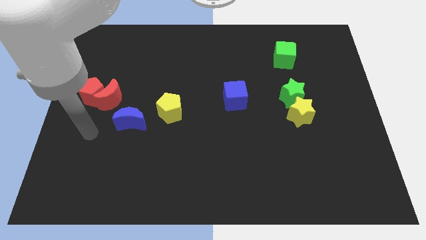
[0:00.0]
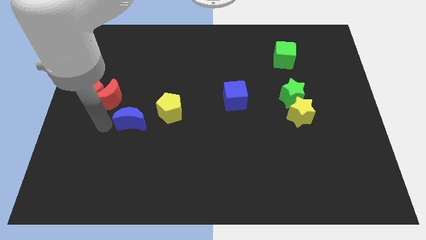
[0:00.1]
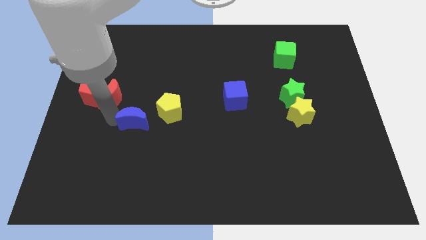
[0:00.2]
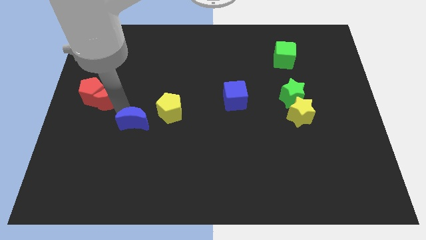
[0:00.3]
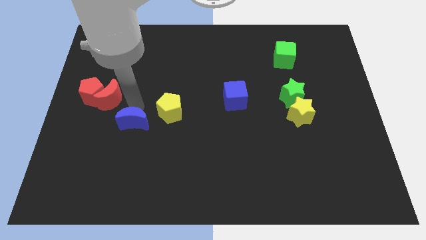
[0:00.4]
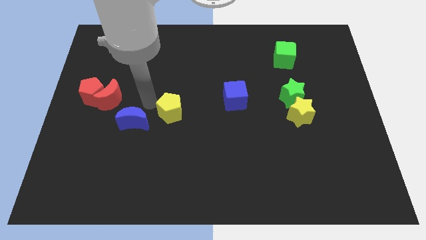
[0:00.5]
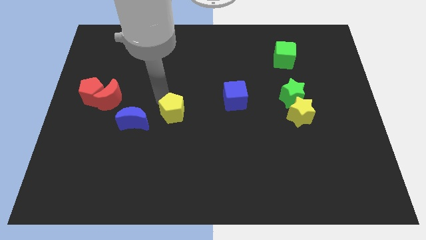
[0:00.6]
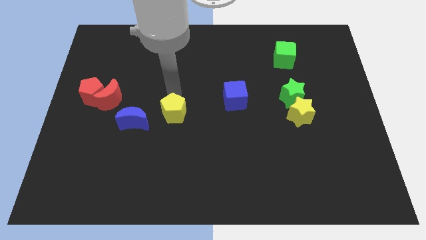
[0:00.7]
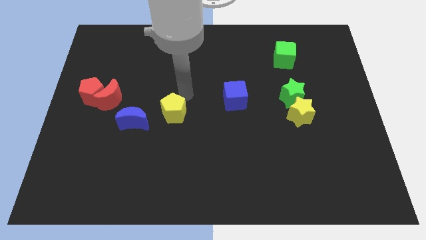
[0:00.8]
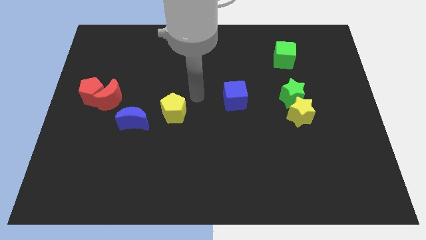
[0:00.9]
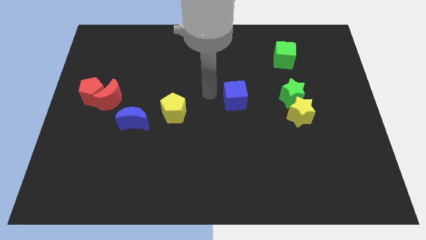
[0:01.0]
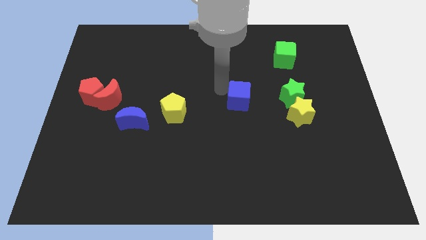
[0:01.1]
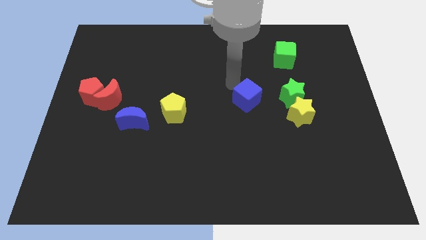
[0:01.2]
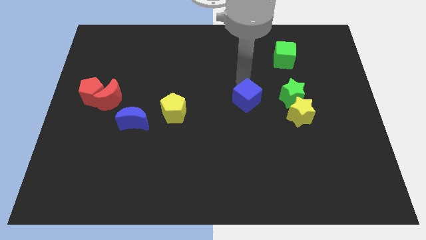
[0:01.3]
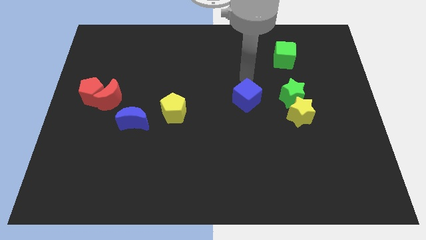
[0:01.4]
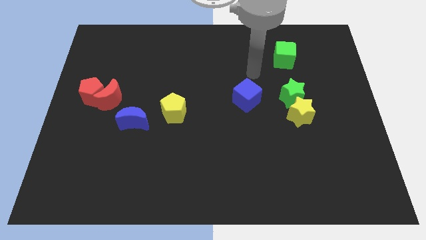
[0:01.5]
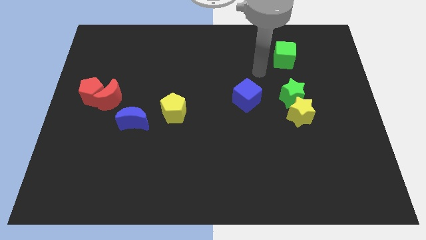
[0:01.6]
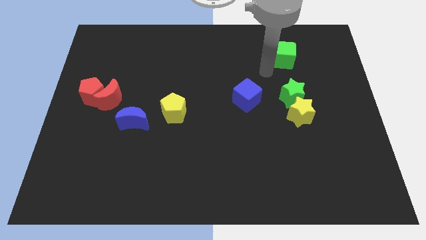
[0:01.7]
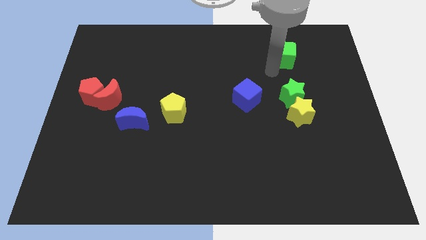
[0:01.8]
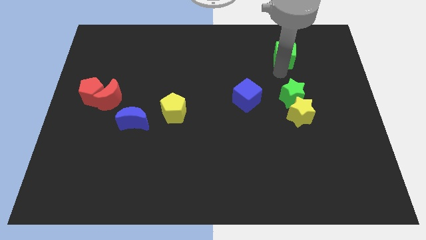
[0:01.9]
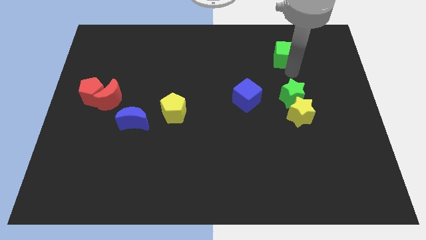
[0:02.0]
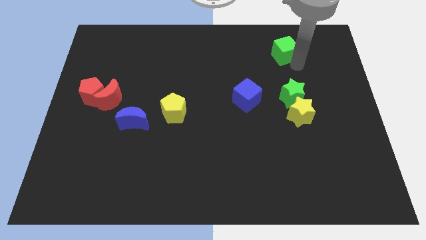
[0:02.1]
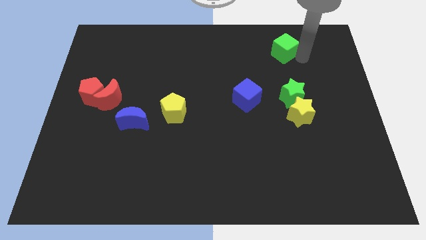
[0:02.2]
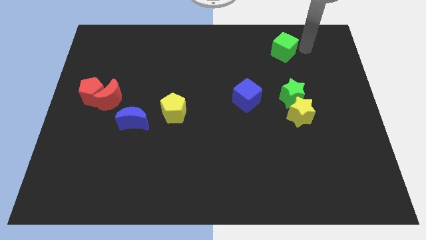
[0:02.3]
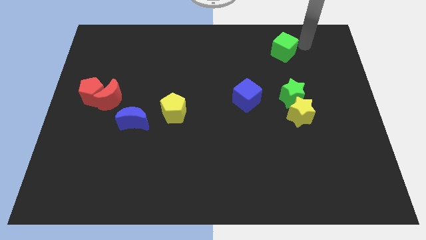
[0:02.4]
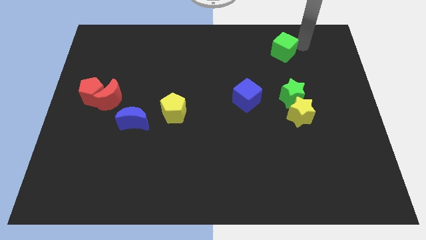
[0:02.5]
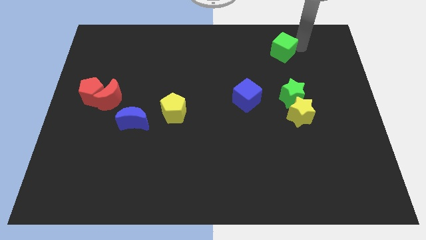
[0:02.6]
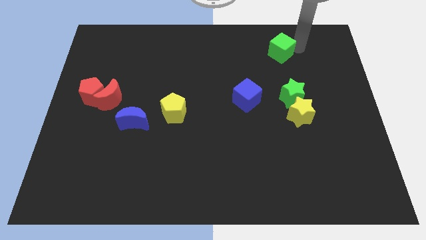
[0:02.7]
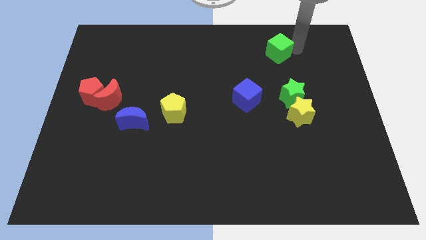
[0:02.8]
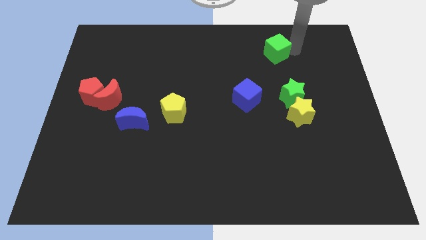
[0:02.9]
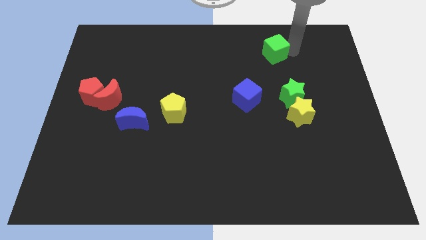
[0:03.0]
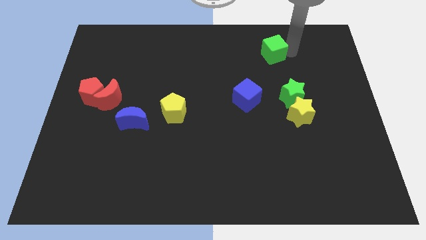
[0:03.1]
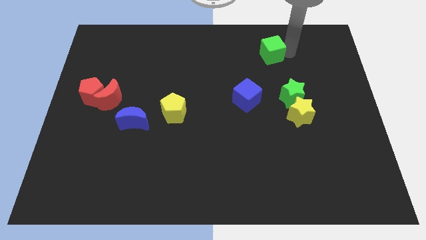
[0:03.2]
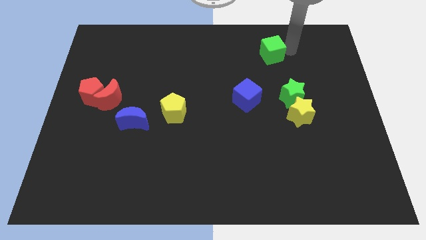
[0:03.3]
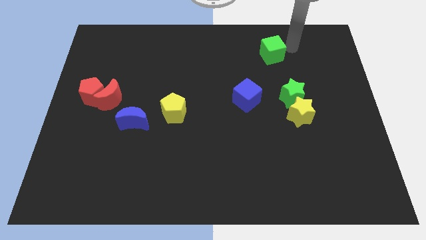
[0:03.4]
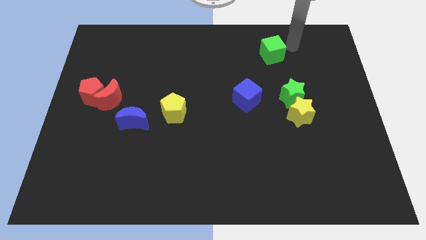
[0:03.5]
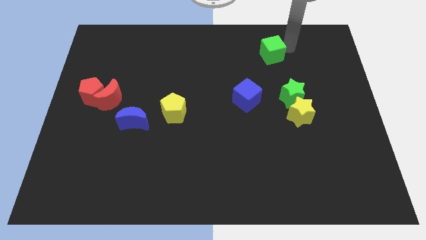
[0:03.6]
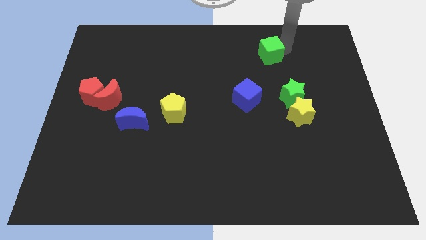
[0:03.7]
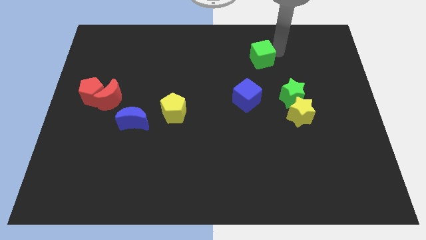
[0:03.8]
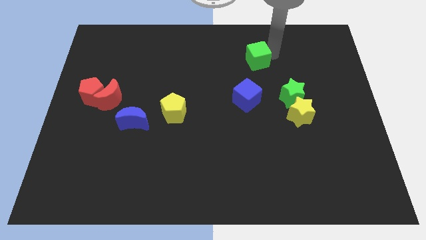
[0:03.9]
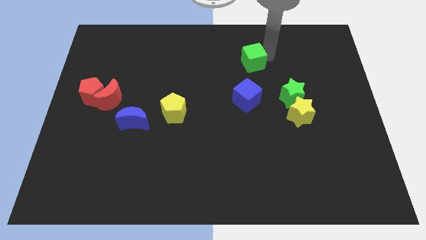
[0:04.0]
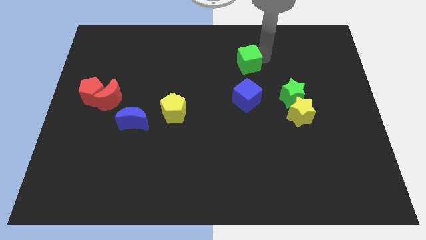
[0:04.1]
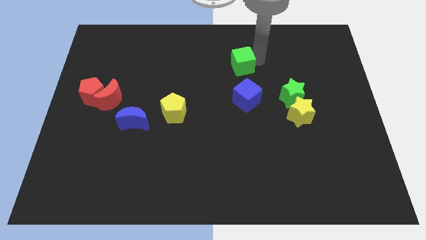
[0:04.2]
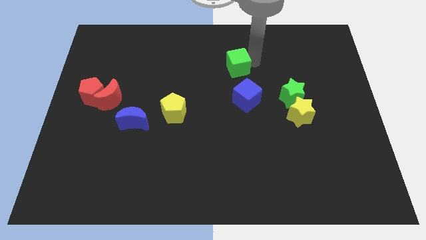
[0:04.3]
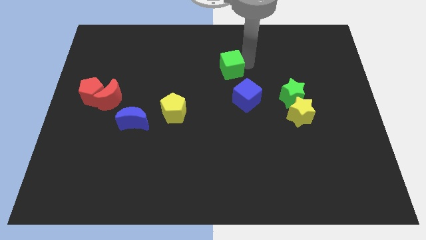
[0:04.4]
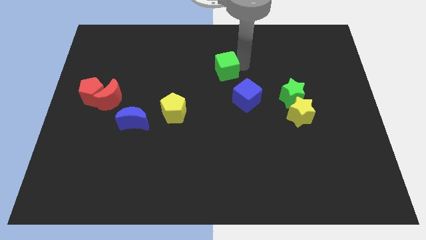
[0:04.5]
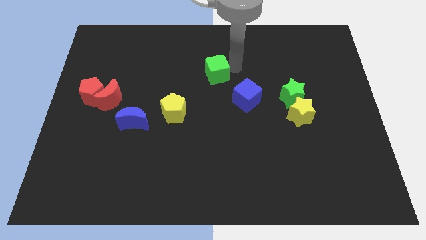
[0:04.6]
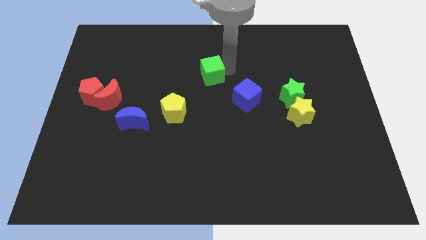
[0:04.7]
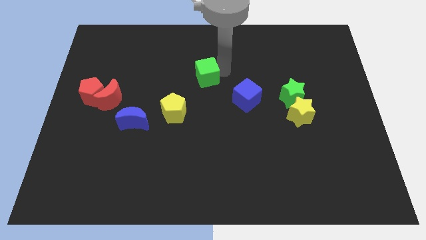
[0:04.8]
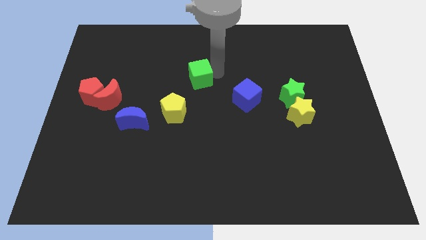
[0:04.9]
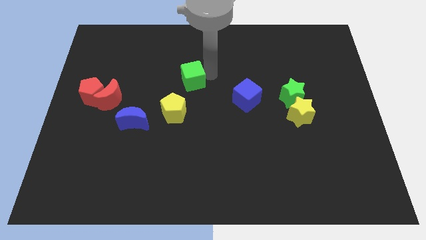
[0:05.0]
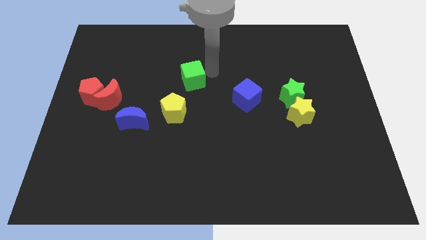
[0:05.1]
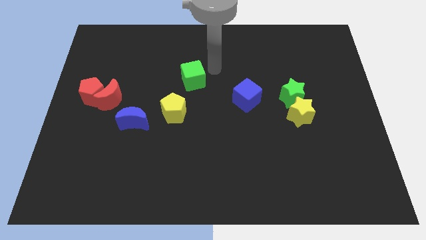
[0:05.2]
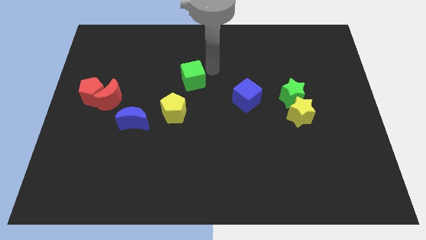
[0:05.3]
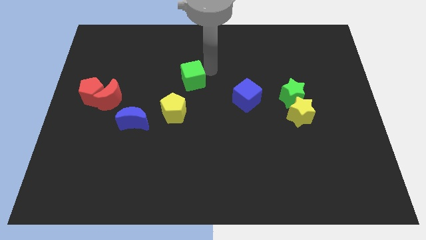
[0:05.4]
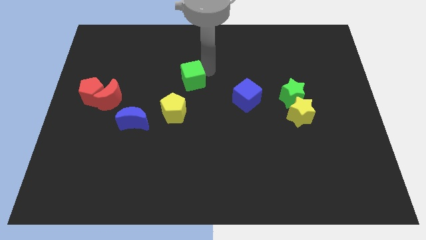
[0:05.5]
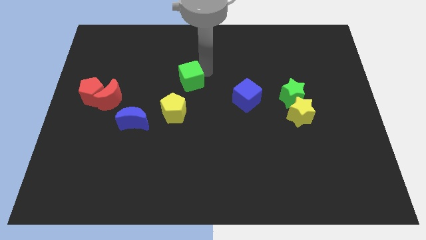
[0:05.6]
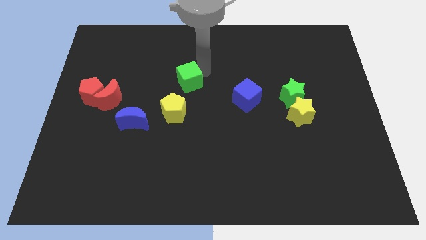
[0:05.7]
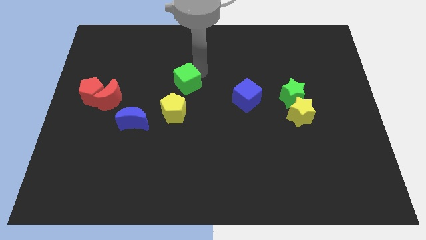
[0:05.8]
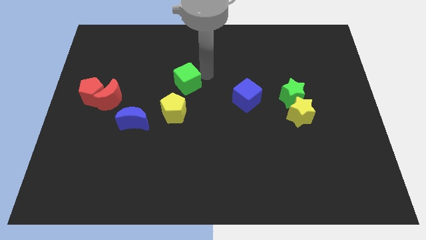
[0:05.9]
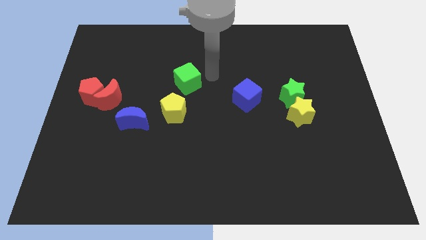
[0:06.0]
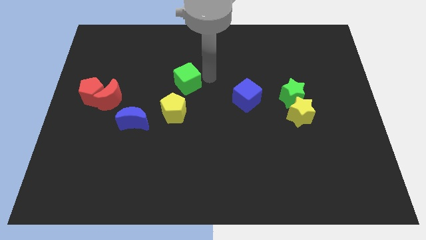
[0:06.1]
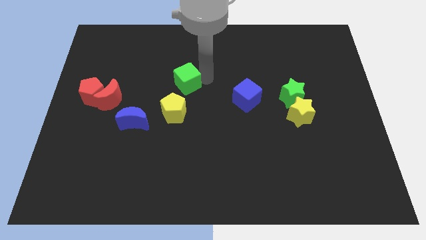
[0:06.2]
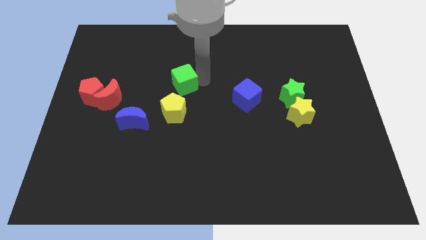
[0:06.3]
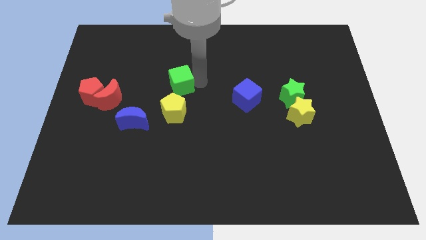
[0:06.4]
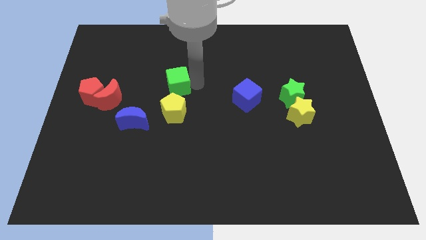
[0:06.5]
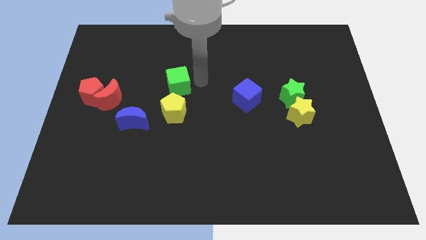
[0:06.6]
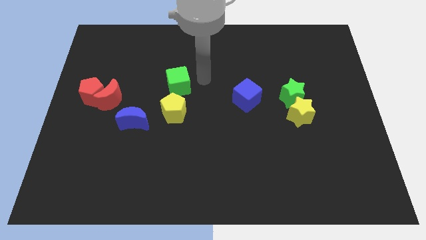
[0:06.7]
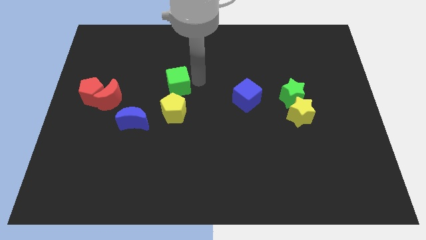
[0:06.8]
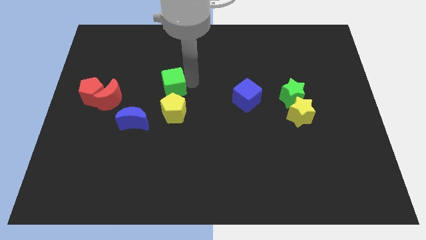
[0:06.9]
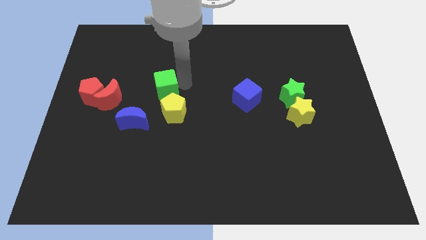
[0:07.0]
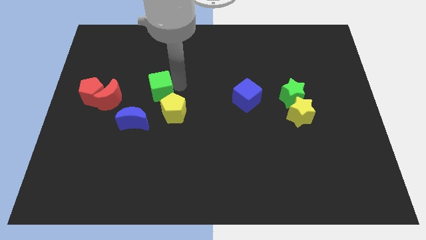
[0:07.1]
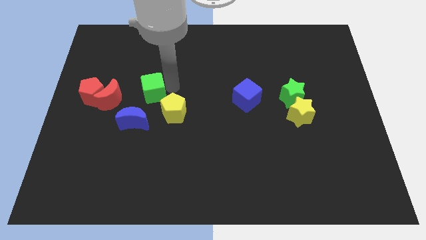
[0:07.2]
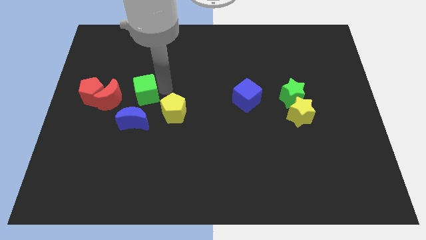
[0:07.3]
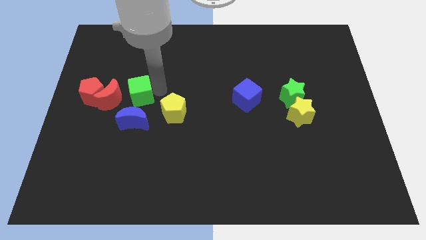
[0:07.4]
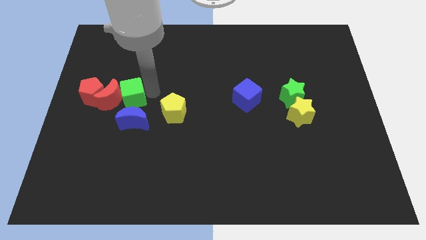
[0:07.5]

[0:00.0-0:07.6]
move the green cube close to the red moon
